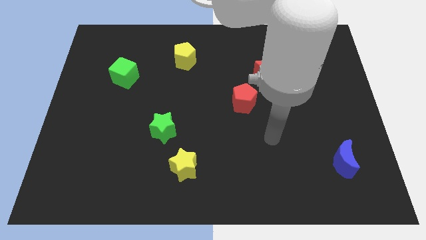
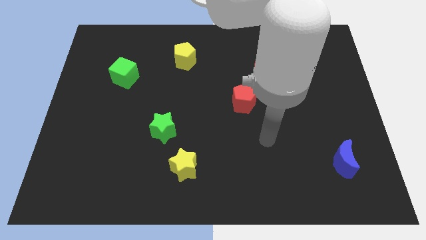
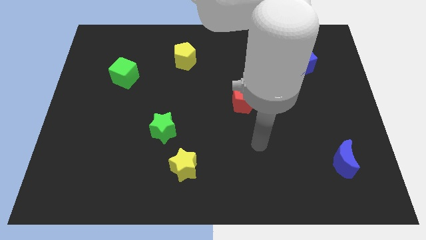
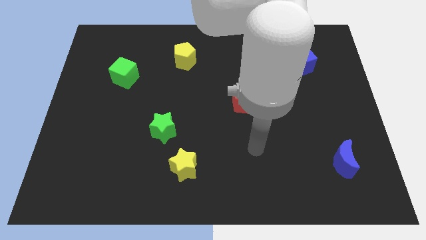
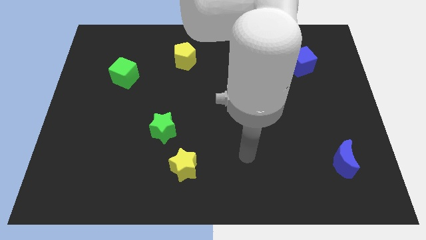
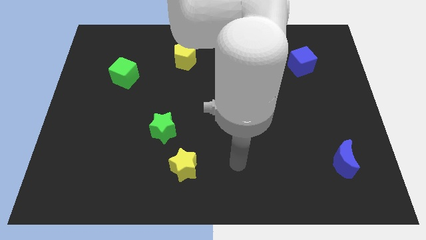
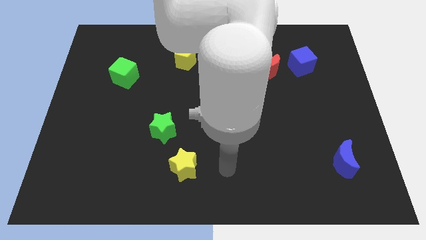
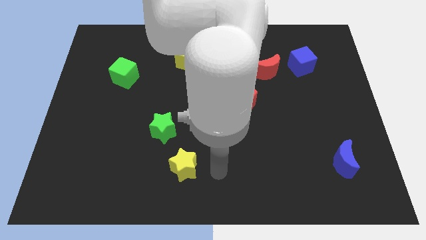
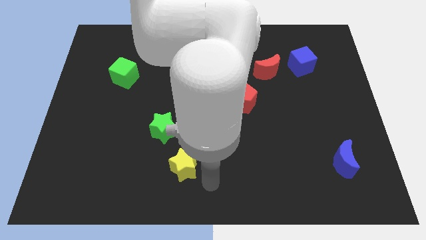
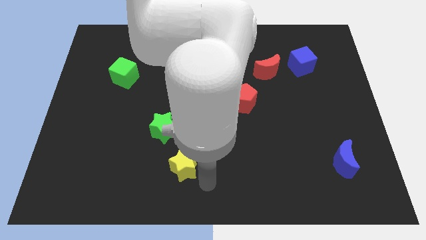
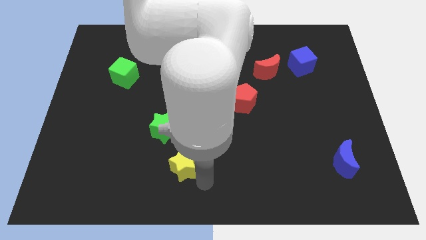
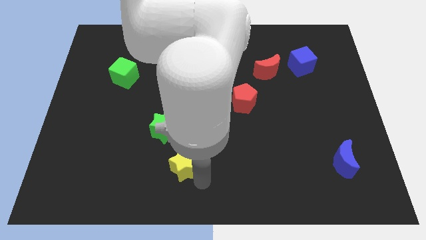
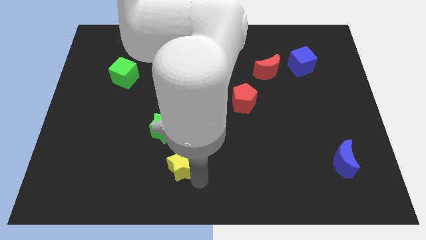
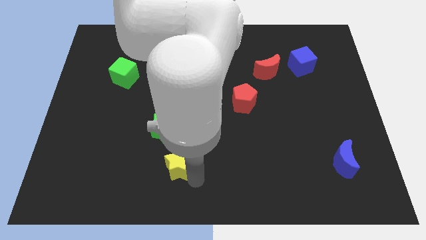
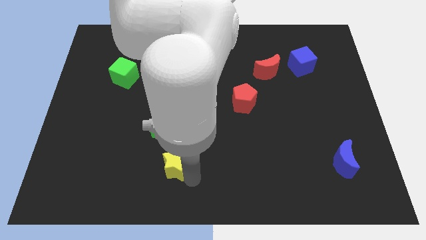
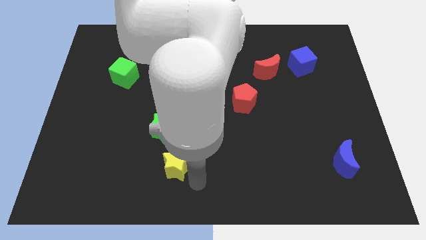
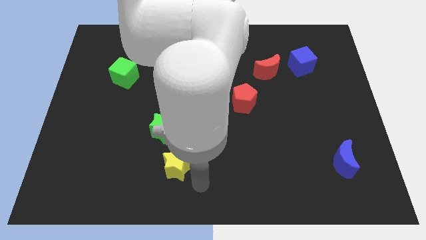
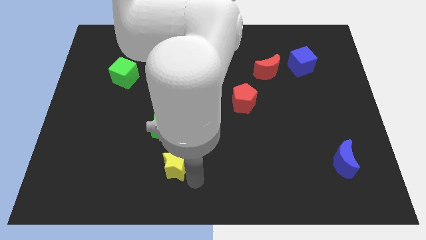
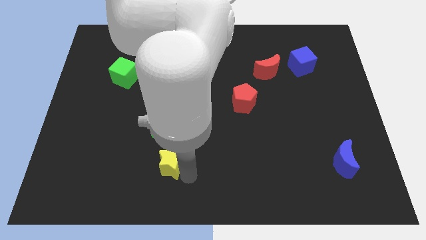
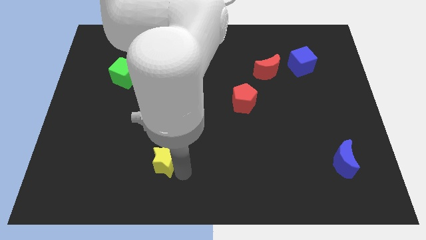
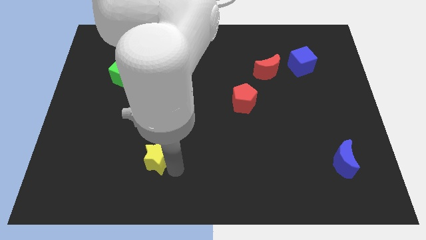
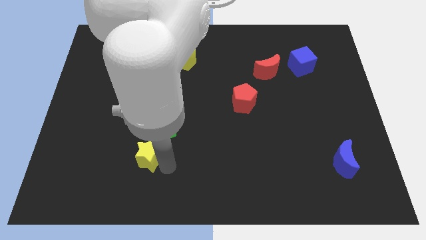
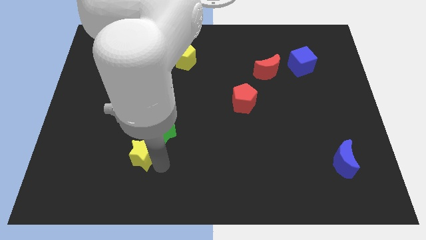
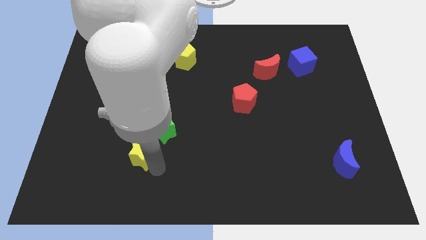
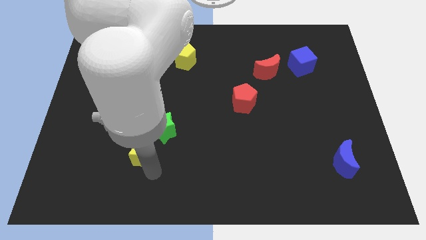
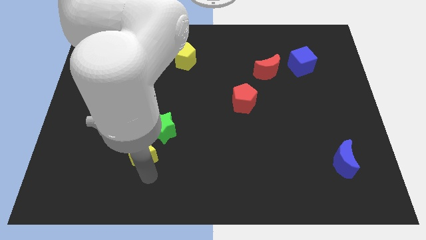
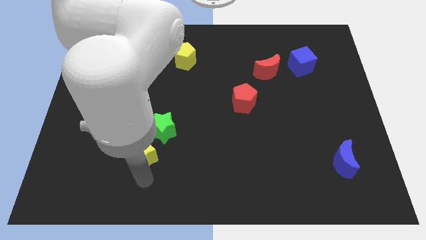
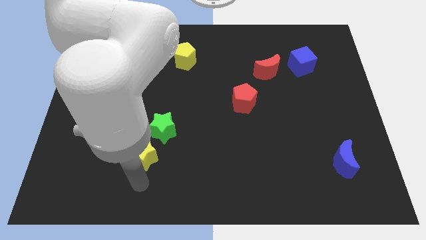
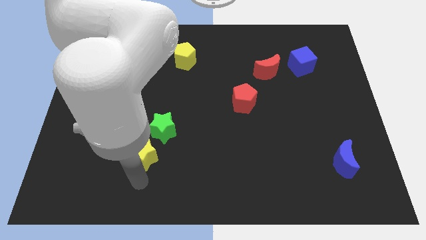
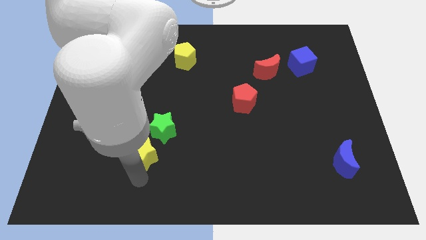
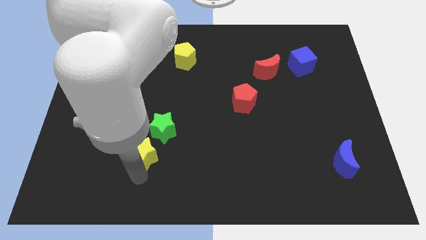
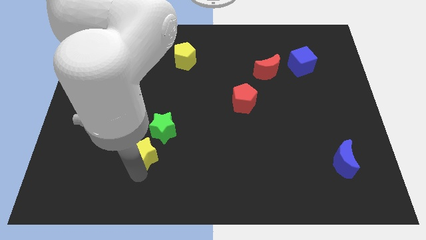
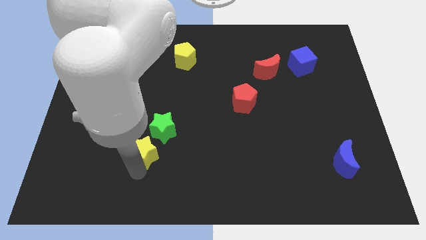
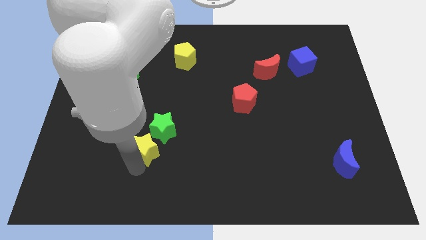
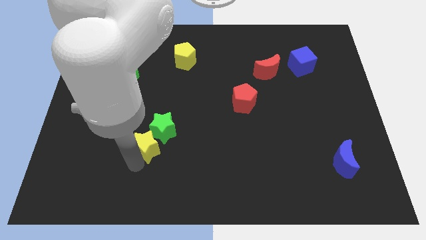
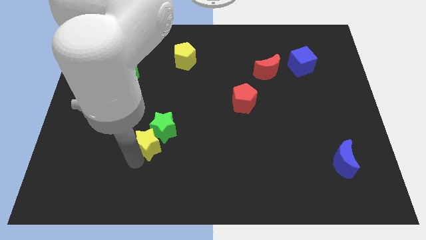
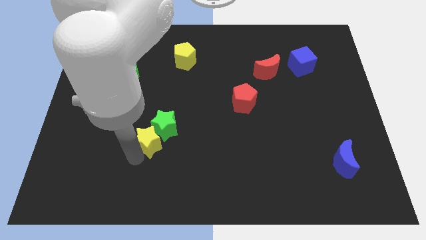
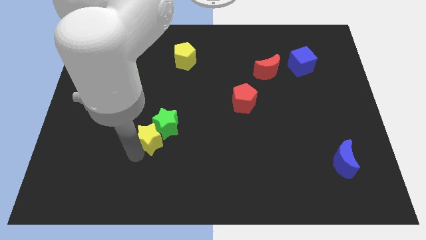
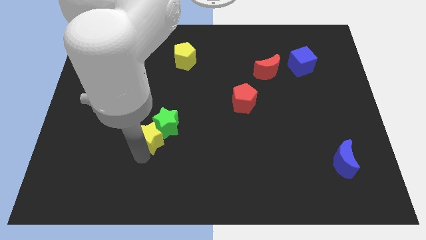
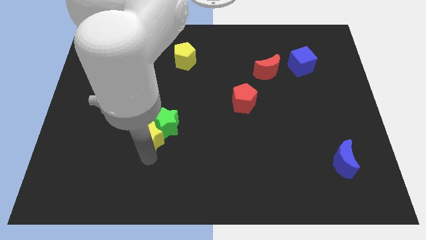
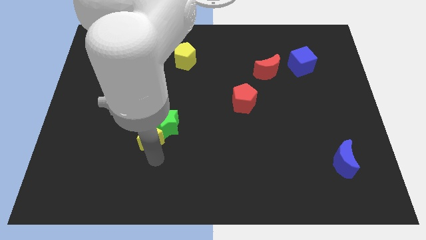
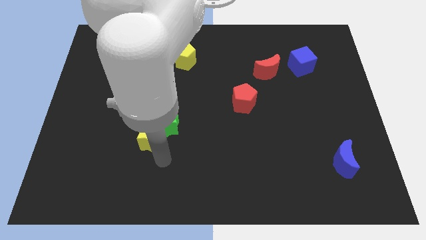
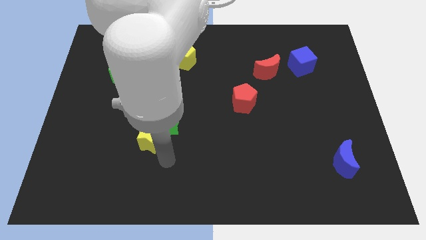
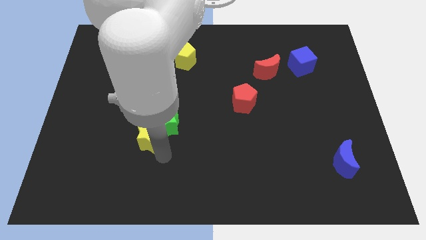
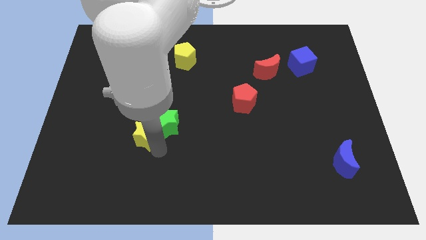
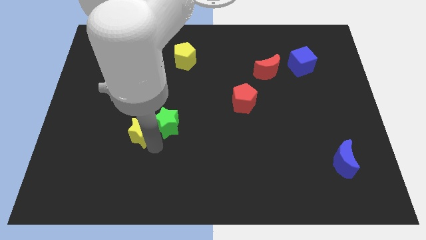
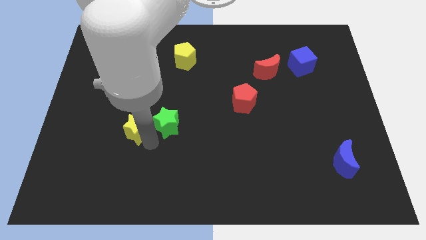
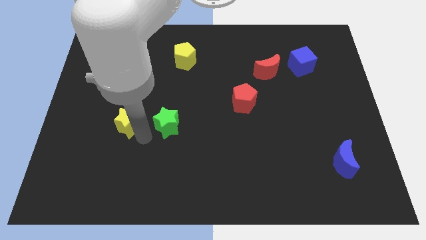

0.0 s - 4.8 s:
slide the yellow star below the green cube

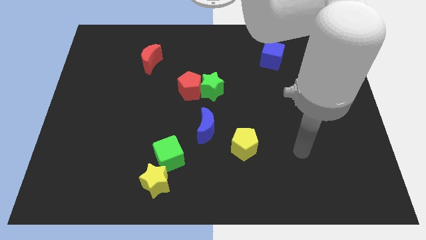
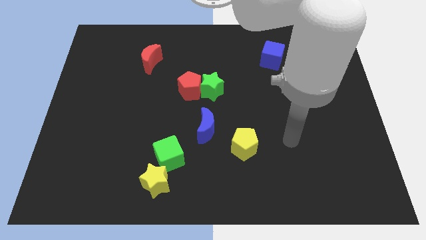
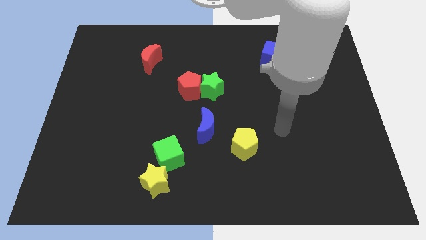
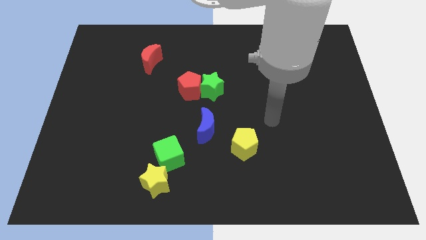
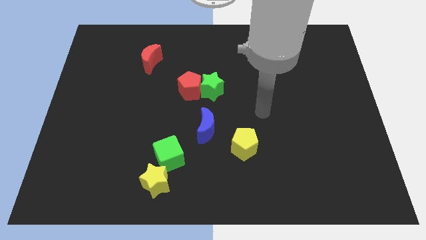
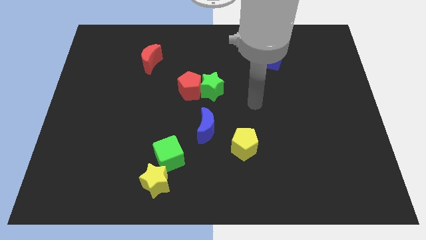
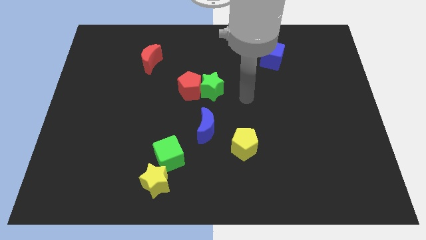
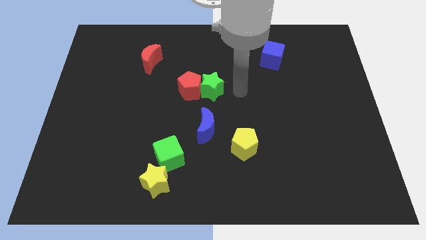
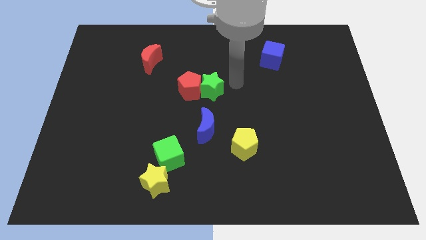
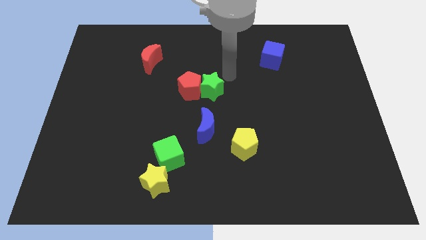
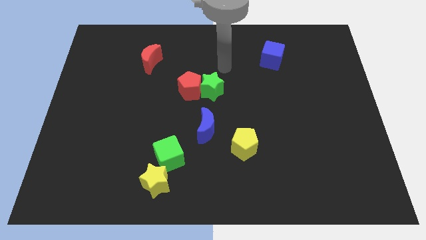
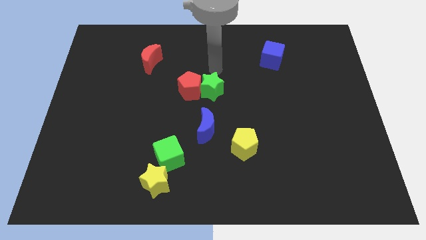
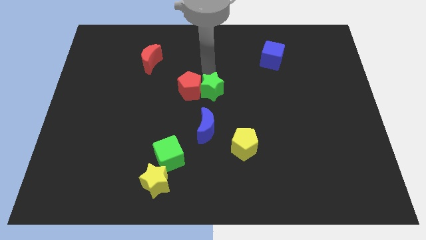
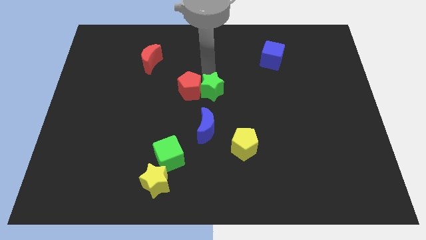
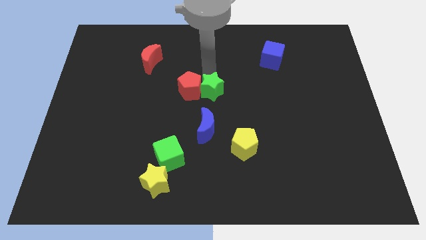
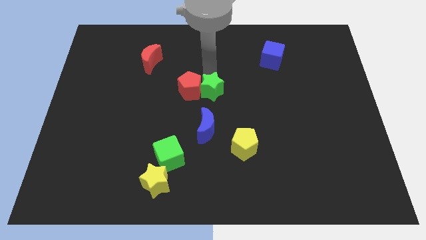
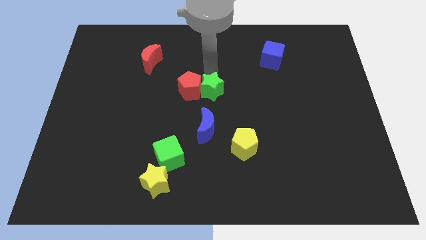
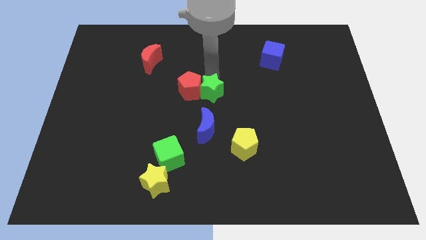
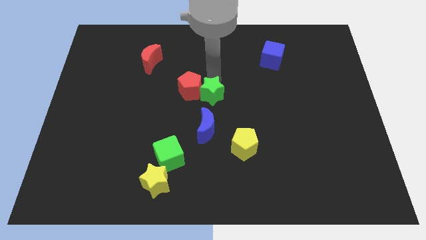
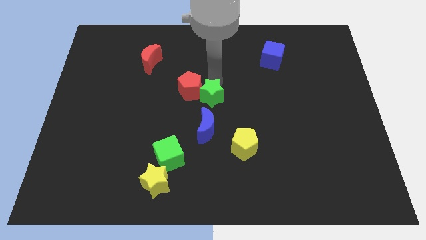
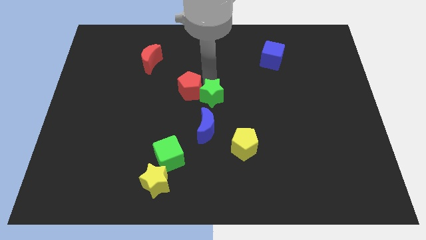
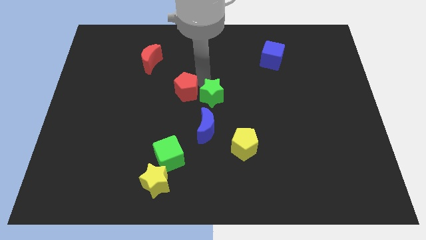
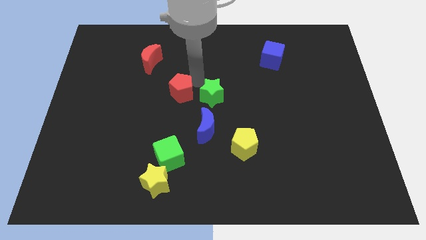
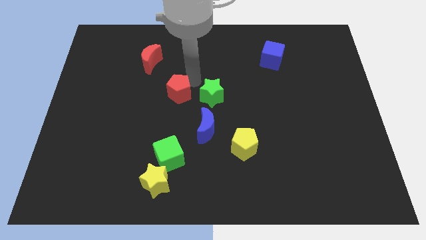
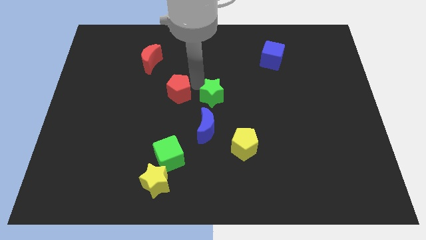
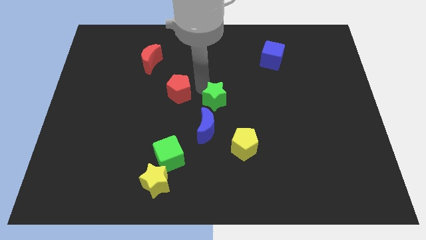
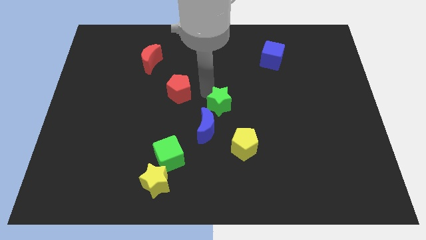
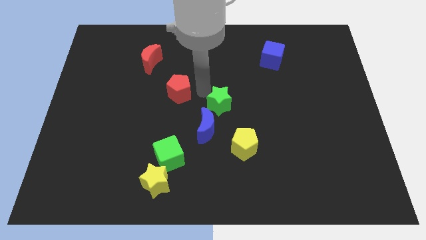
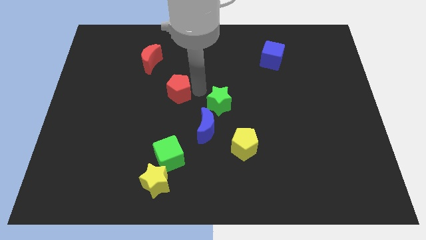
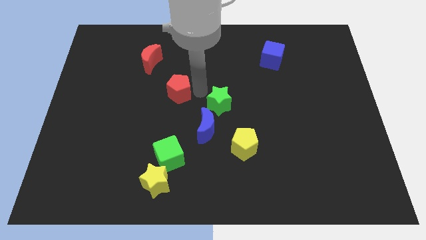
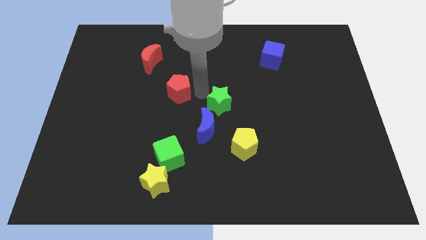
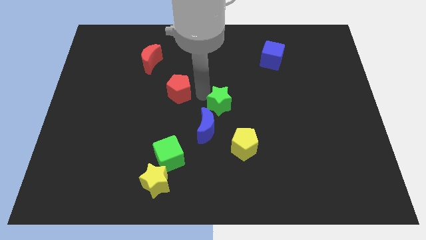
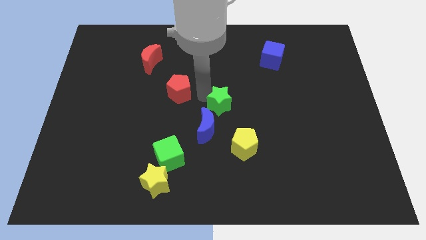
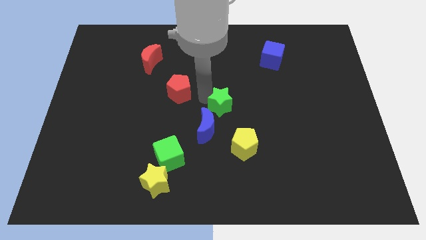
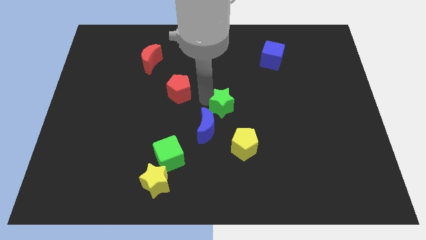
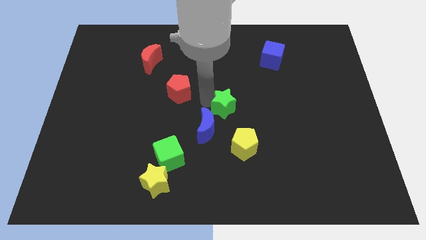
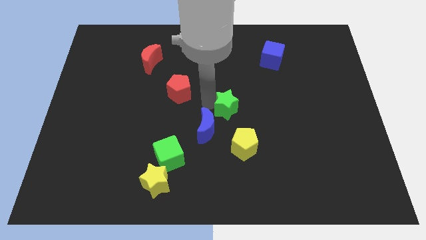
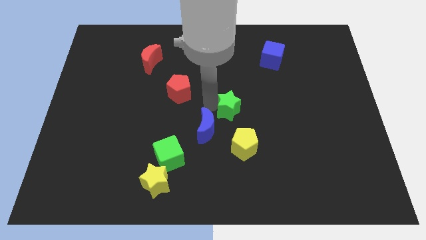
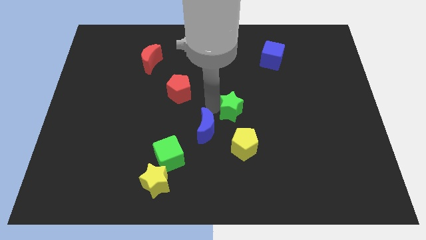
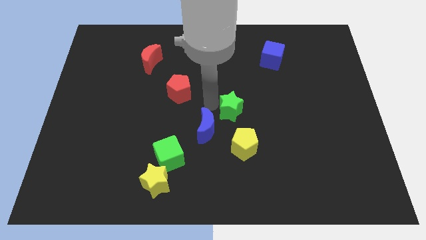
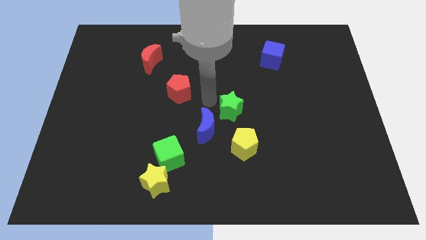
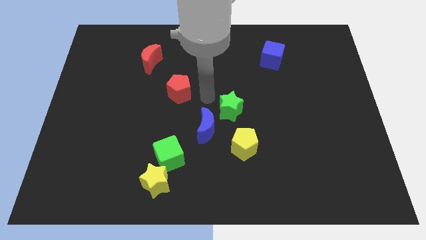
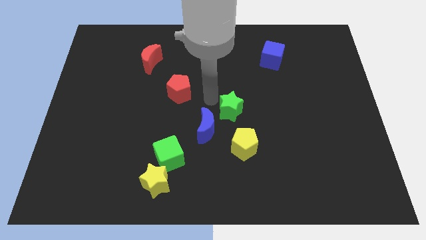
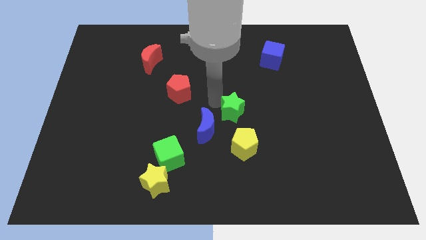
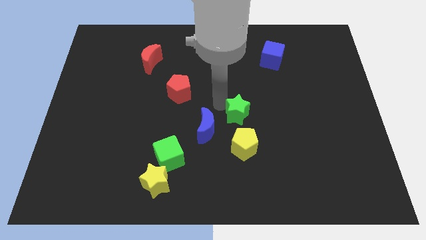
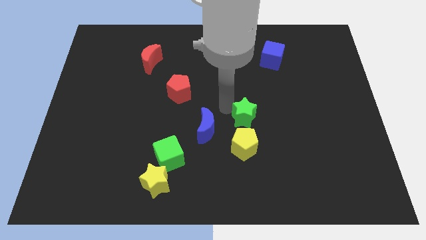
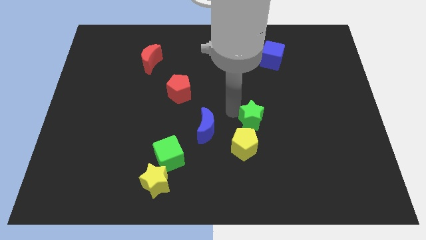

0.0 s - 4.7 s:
slide the green star to the top right of the yellow pentagon
